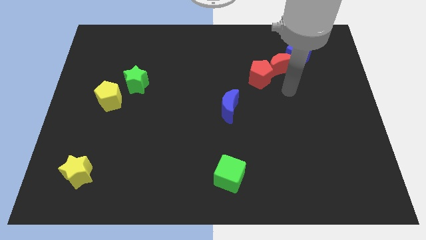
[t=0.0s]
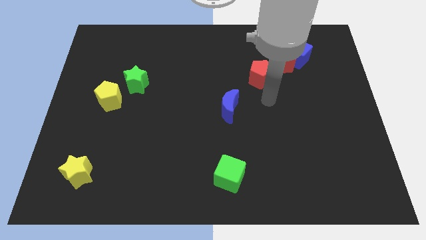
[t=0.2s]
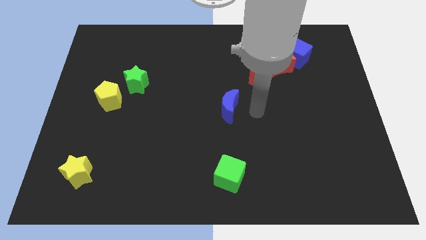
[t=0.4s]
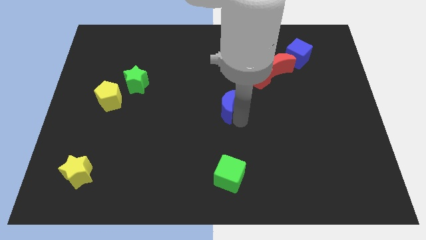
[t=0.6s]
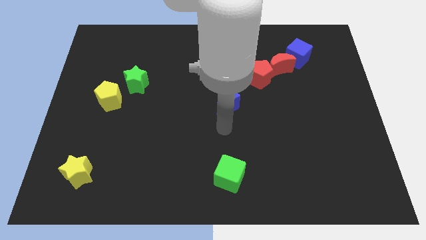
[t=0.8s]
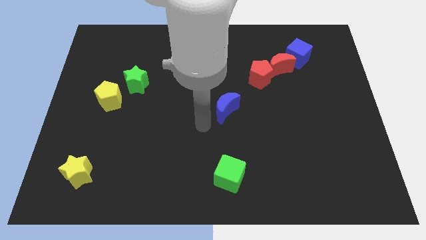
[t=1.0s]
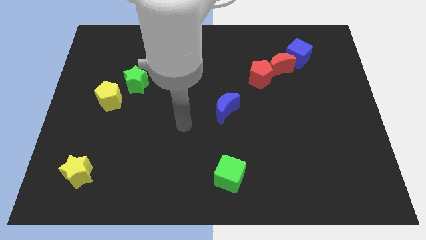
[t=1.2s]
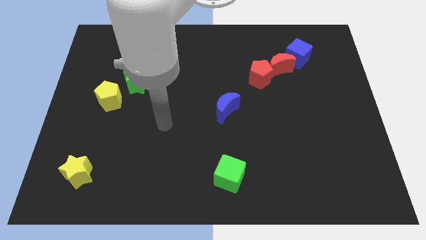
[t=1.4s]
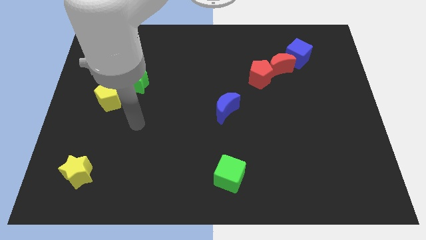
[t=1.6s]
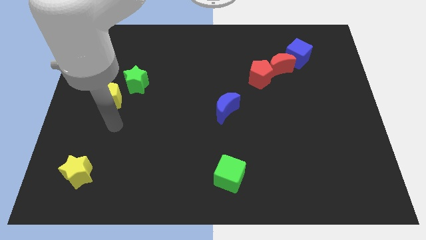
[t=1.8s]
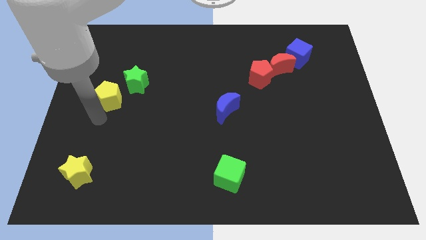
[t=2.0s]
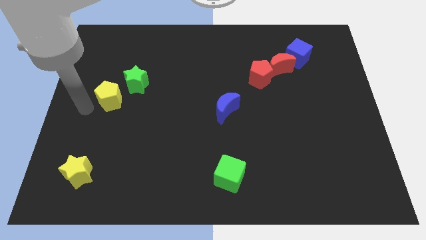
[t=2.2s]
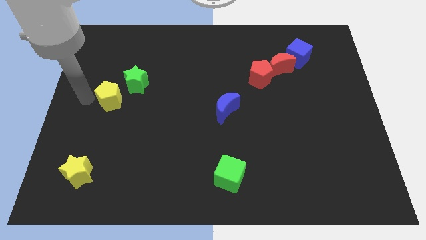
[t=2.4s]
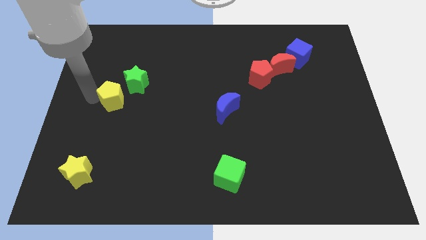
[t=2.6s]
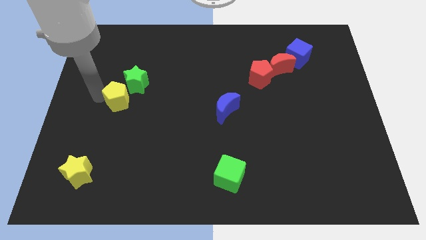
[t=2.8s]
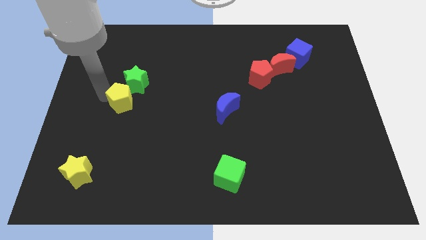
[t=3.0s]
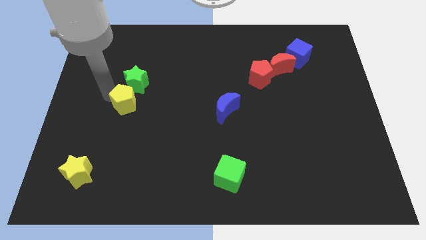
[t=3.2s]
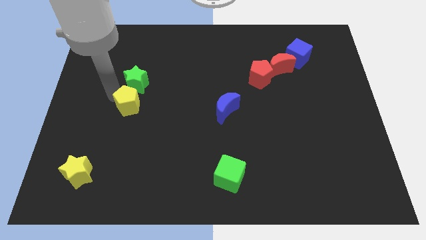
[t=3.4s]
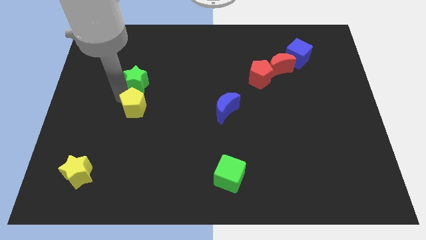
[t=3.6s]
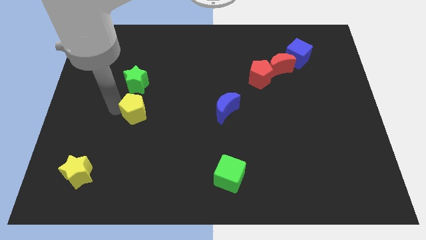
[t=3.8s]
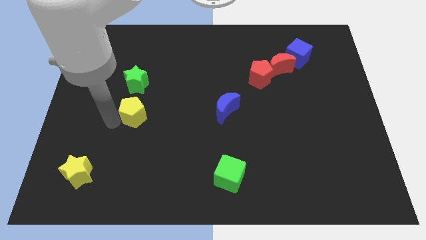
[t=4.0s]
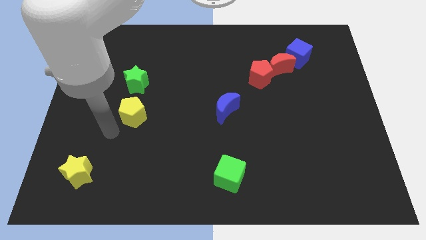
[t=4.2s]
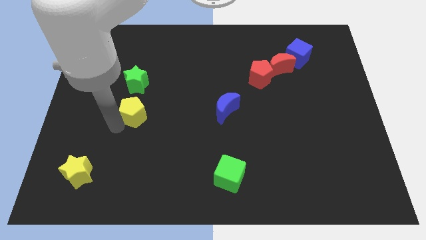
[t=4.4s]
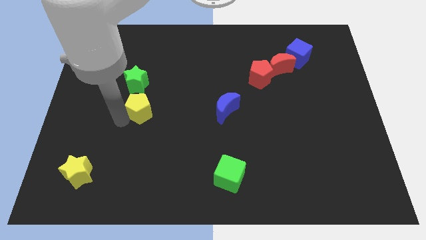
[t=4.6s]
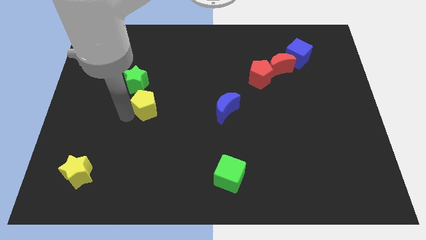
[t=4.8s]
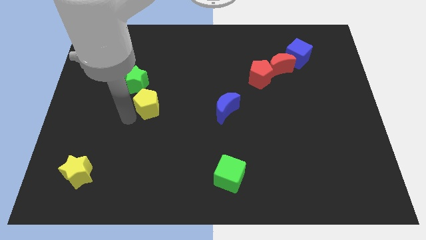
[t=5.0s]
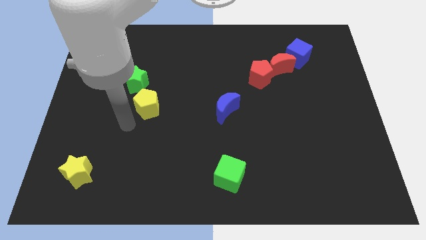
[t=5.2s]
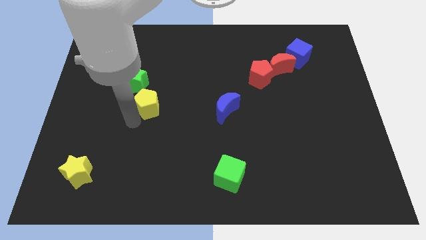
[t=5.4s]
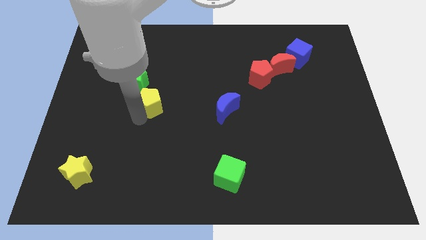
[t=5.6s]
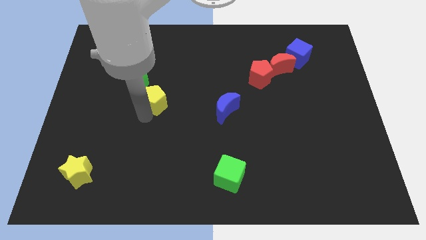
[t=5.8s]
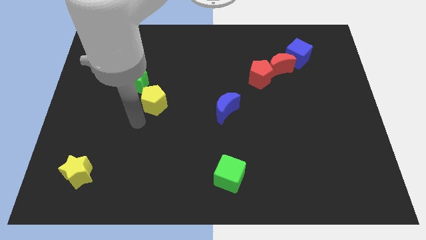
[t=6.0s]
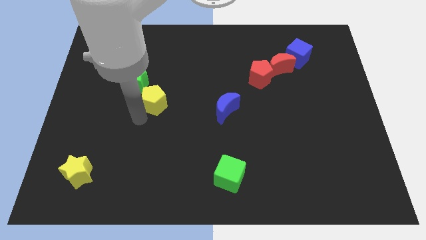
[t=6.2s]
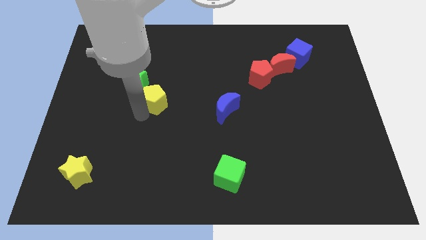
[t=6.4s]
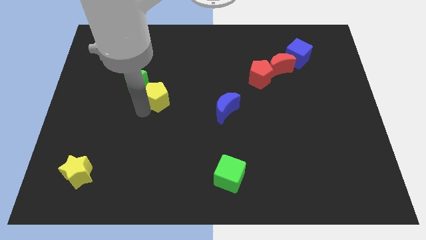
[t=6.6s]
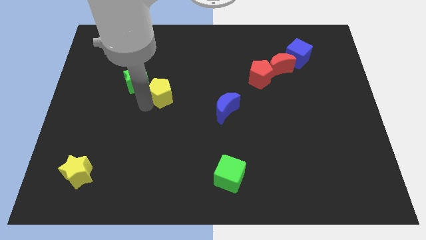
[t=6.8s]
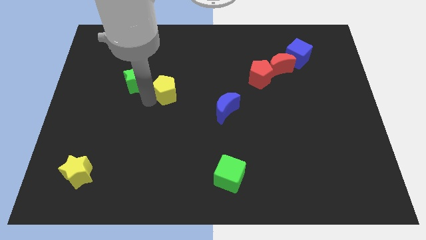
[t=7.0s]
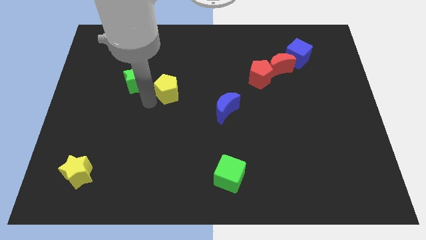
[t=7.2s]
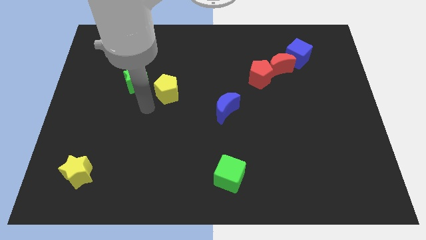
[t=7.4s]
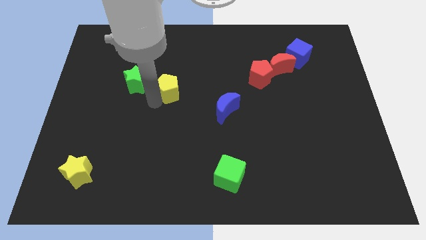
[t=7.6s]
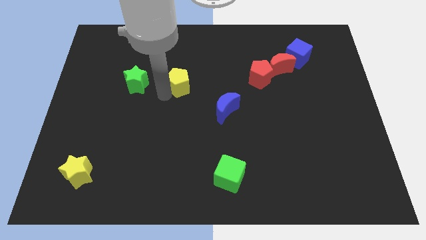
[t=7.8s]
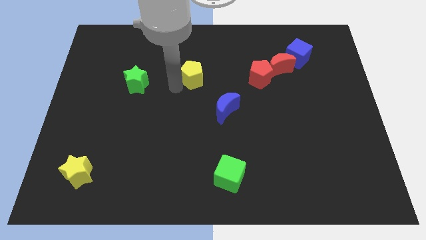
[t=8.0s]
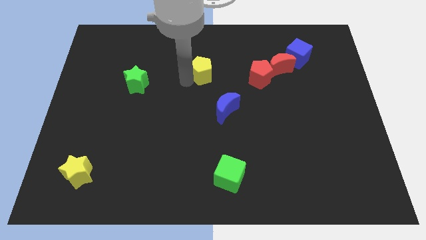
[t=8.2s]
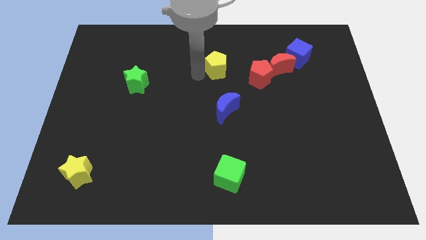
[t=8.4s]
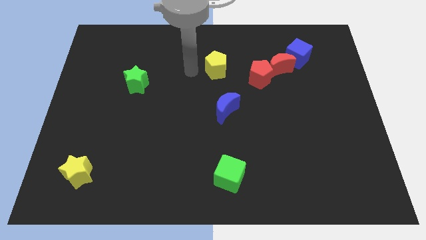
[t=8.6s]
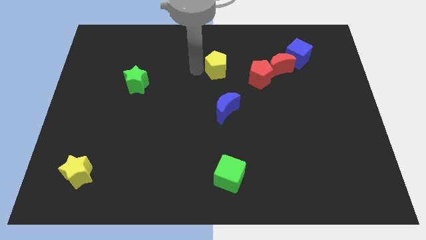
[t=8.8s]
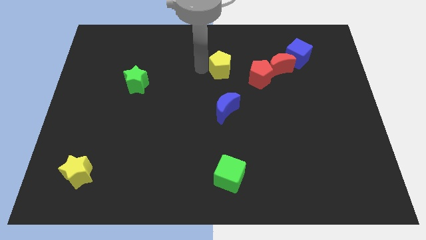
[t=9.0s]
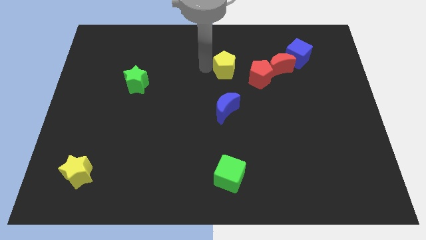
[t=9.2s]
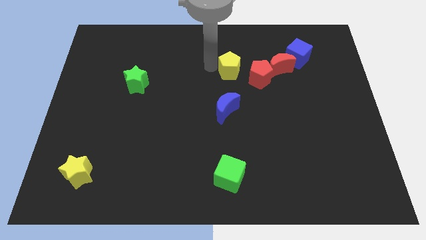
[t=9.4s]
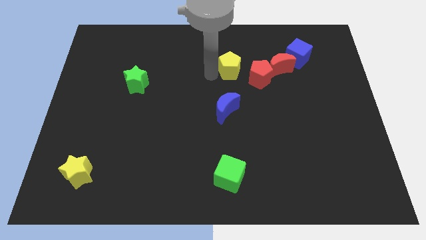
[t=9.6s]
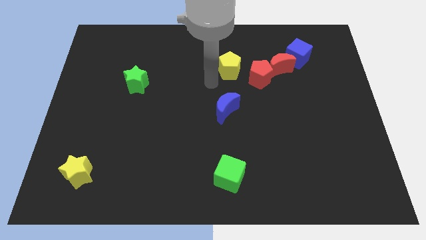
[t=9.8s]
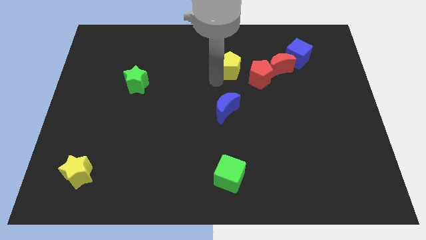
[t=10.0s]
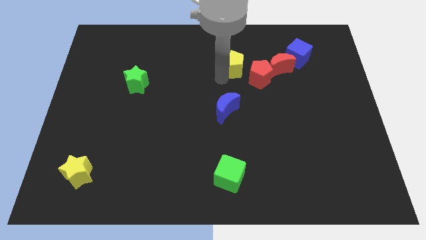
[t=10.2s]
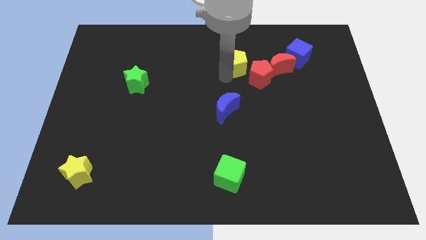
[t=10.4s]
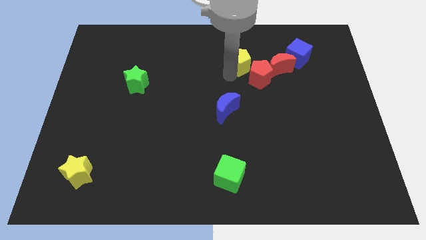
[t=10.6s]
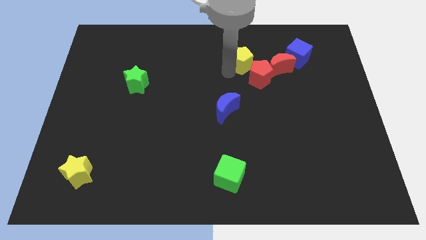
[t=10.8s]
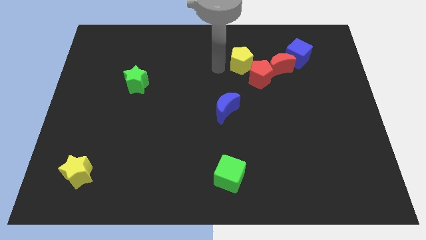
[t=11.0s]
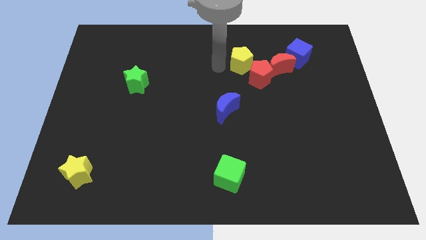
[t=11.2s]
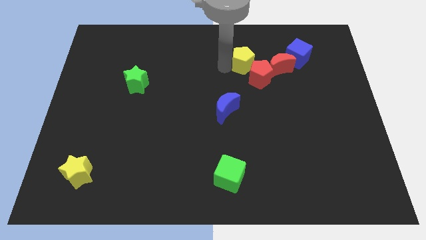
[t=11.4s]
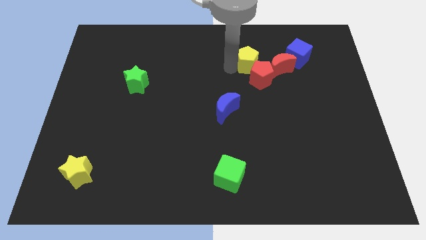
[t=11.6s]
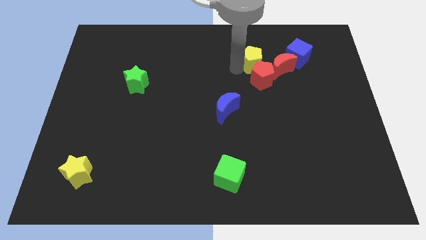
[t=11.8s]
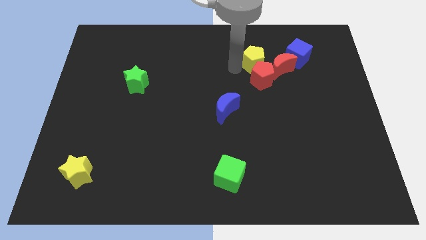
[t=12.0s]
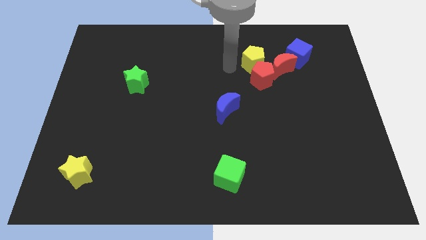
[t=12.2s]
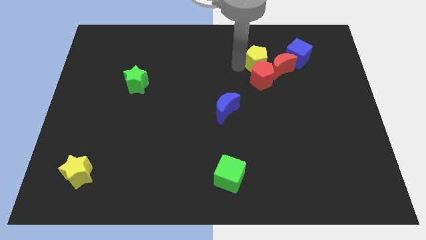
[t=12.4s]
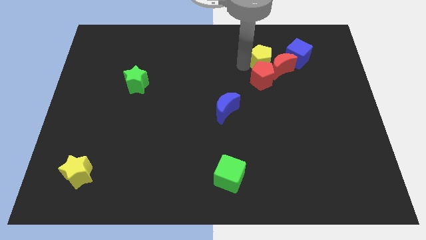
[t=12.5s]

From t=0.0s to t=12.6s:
move the yellow pentagon next to the red moon
